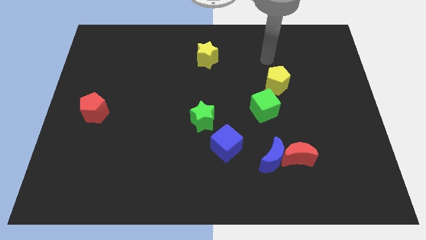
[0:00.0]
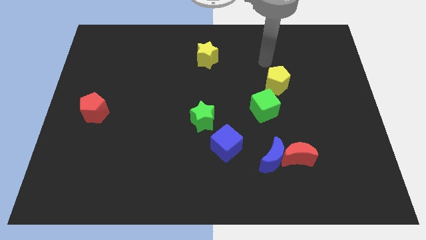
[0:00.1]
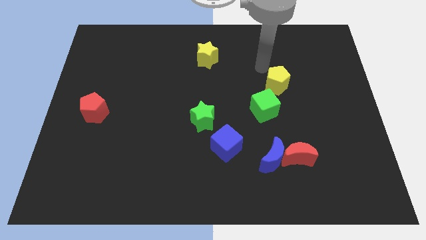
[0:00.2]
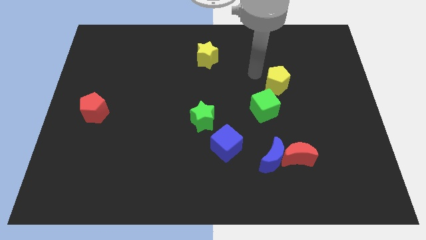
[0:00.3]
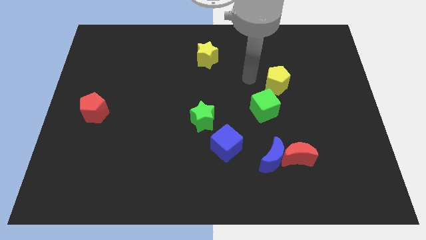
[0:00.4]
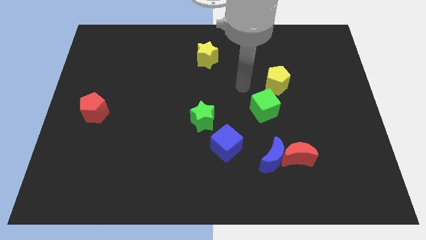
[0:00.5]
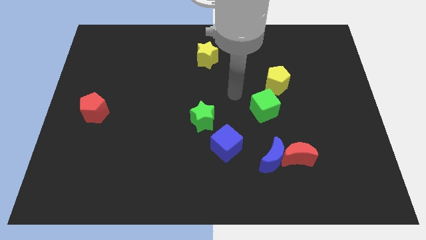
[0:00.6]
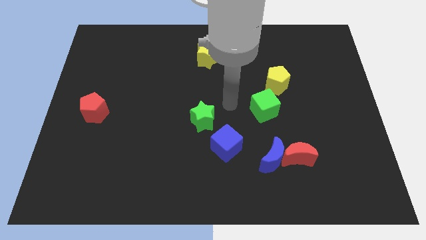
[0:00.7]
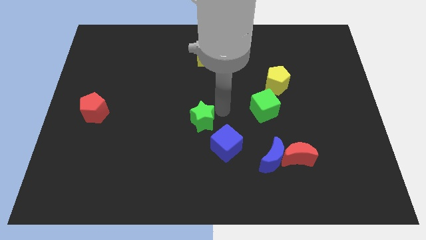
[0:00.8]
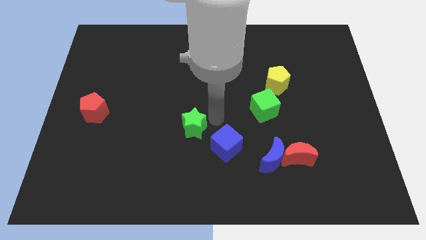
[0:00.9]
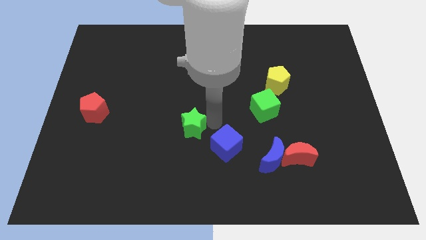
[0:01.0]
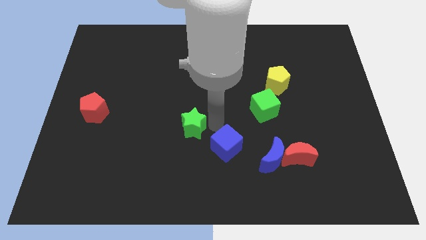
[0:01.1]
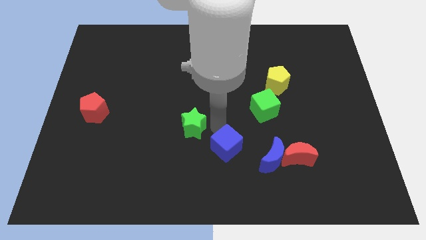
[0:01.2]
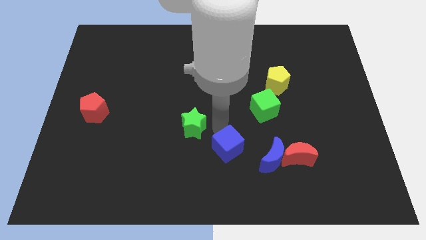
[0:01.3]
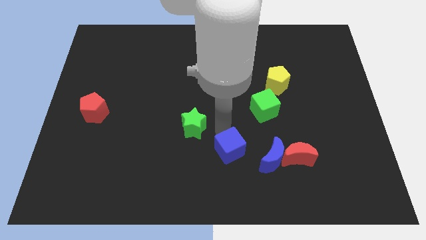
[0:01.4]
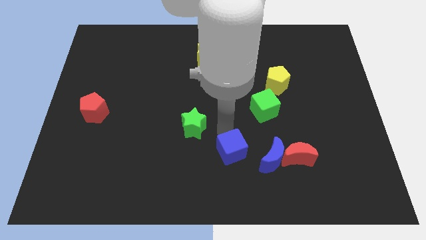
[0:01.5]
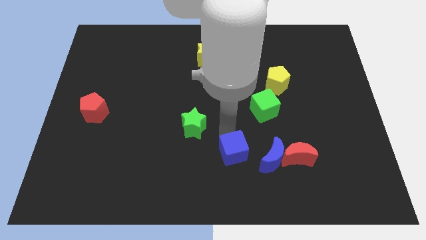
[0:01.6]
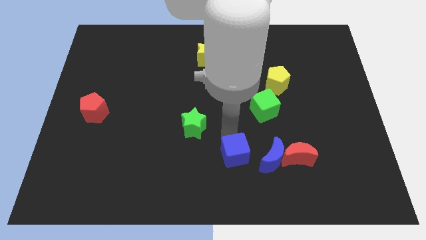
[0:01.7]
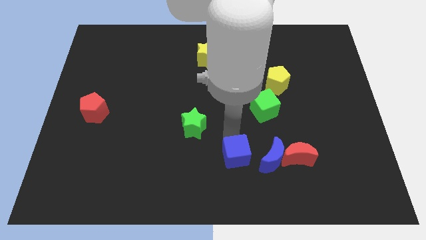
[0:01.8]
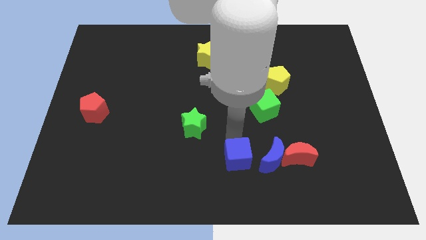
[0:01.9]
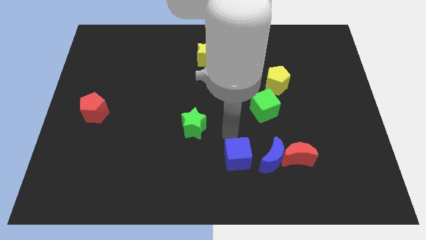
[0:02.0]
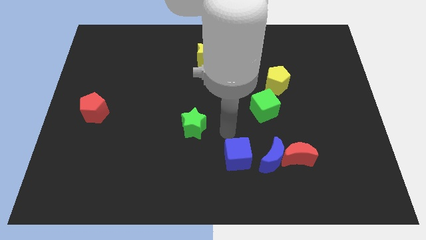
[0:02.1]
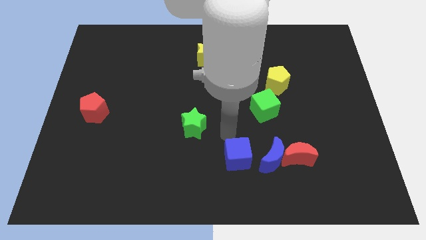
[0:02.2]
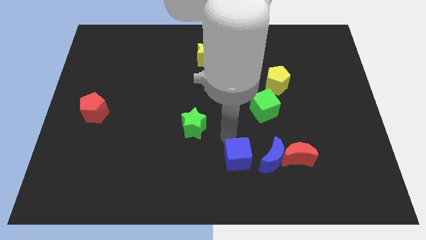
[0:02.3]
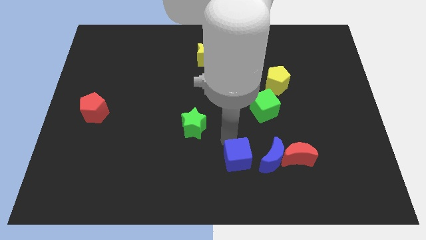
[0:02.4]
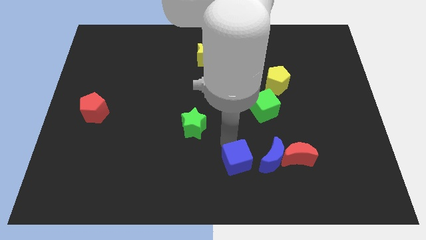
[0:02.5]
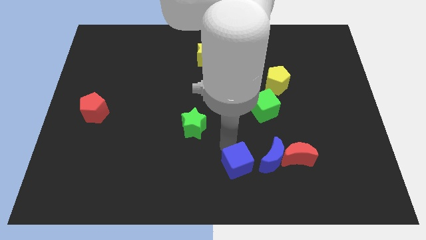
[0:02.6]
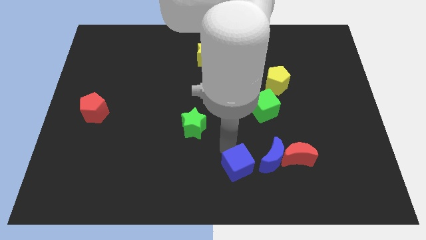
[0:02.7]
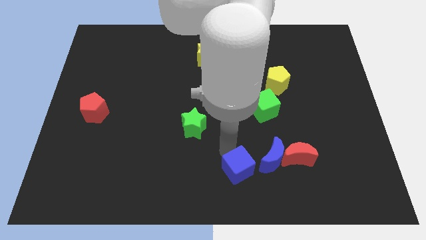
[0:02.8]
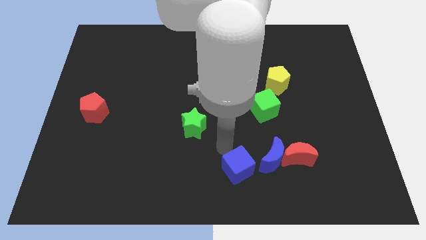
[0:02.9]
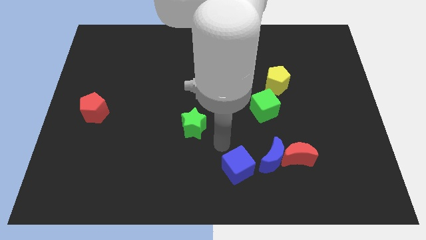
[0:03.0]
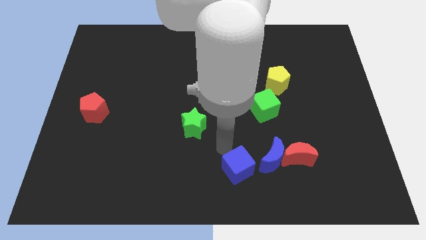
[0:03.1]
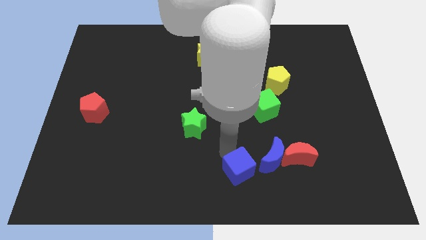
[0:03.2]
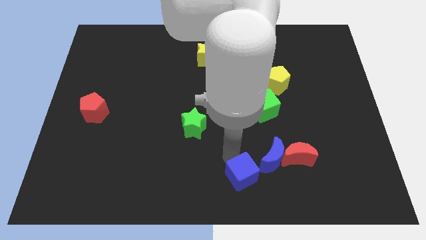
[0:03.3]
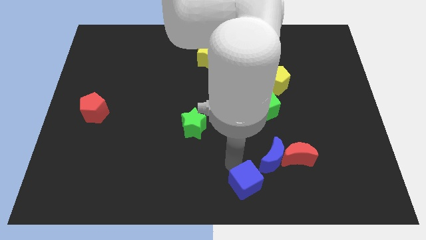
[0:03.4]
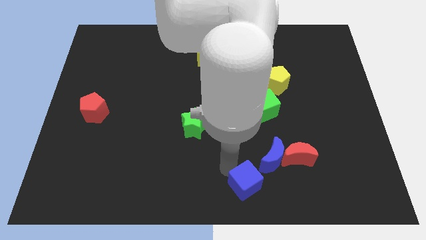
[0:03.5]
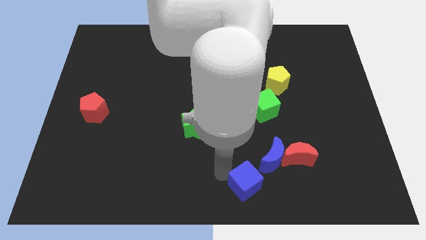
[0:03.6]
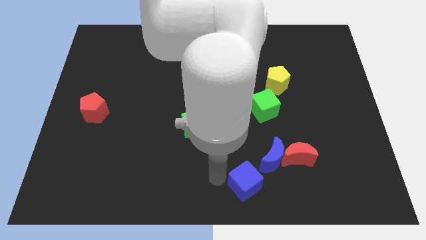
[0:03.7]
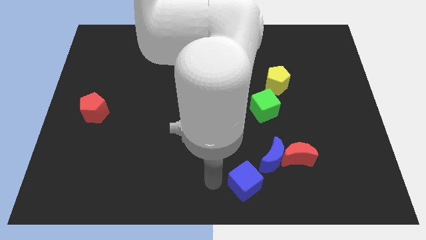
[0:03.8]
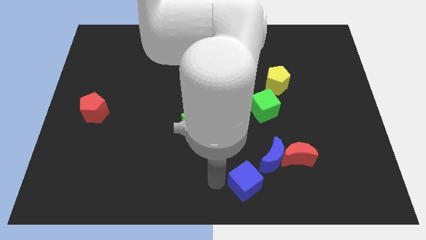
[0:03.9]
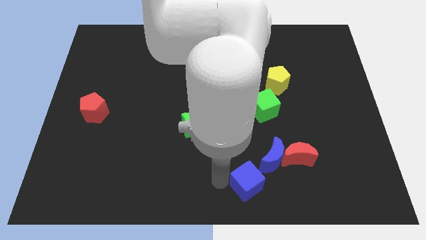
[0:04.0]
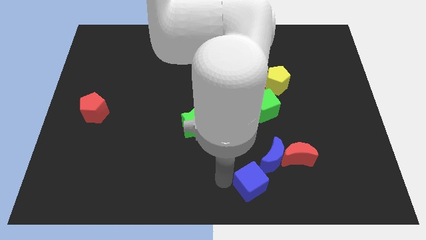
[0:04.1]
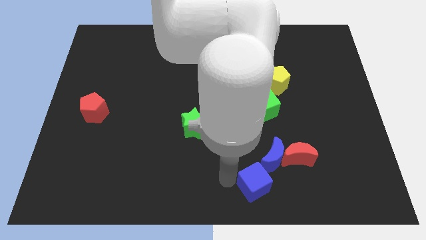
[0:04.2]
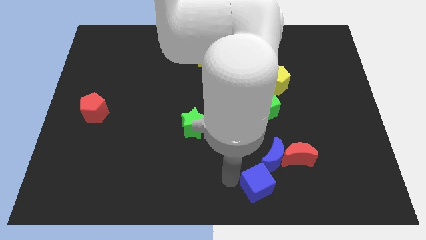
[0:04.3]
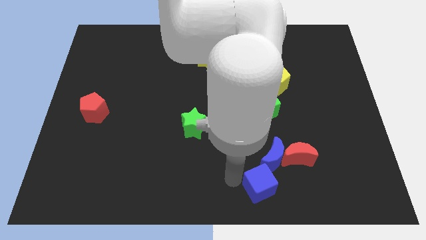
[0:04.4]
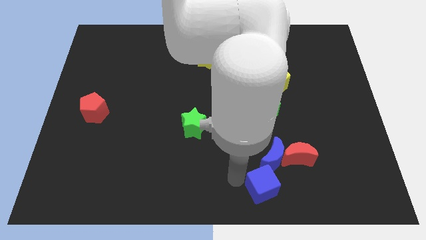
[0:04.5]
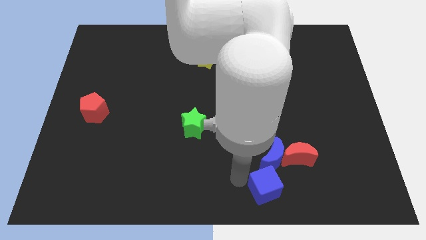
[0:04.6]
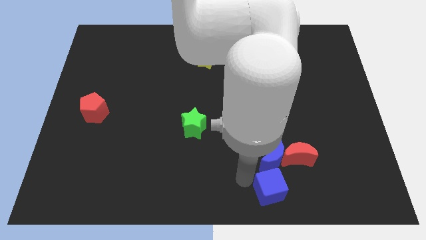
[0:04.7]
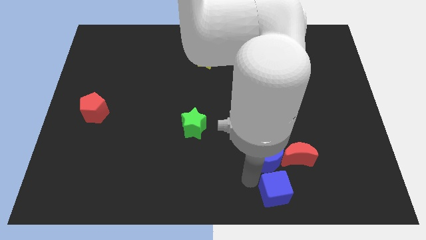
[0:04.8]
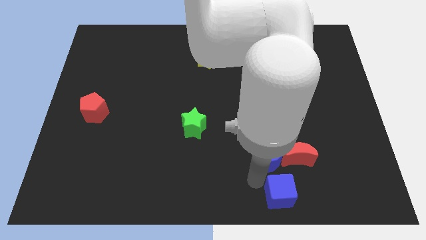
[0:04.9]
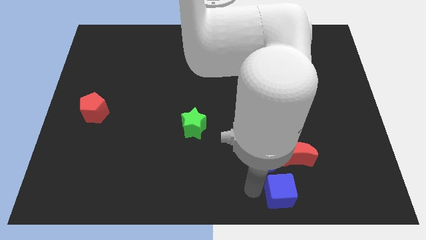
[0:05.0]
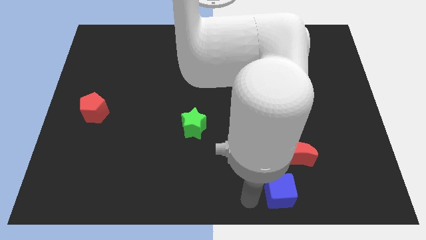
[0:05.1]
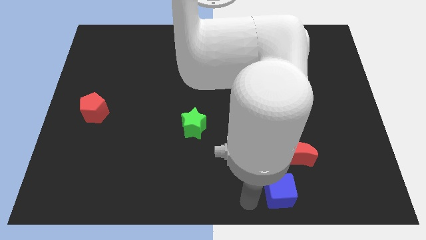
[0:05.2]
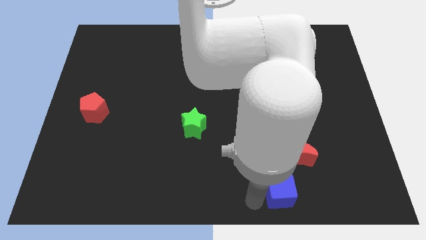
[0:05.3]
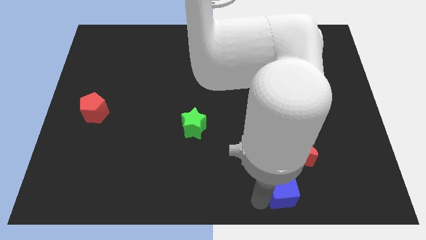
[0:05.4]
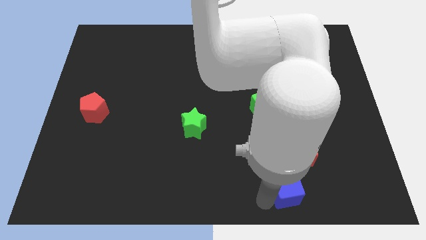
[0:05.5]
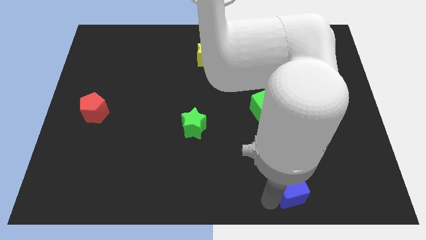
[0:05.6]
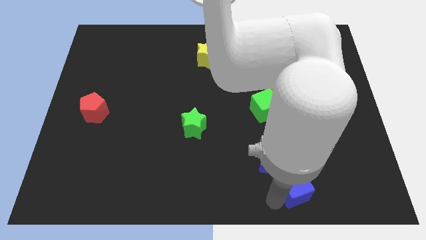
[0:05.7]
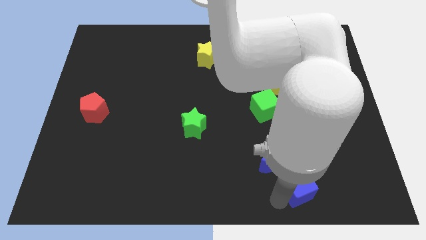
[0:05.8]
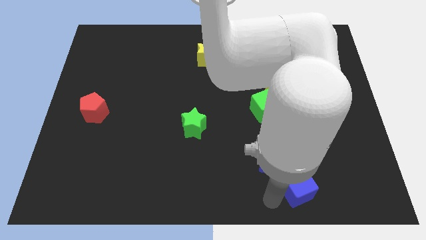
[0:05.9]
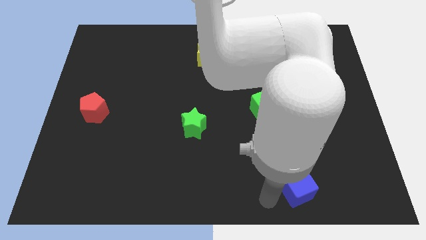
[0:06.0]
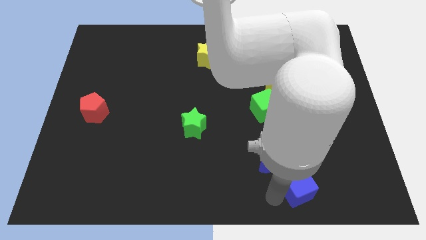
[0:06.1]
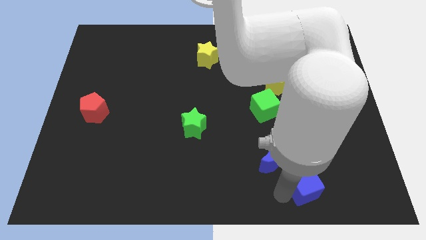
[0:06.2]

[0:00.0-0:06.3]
put the blue cube to the bottom right of the red moon
